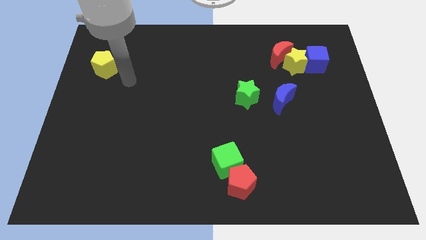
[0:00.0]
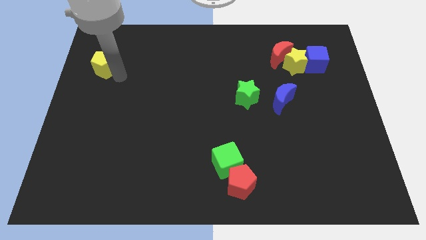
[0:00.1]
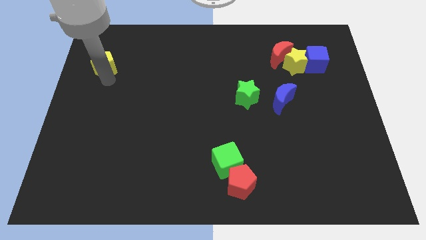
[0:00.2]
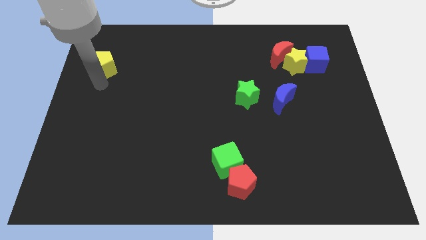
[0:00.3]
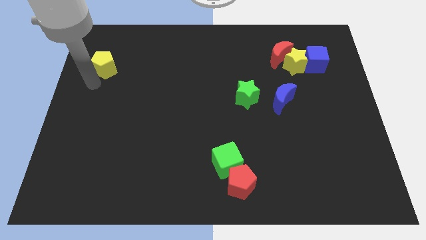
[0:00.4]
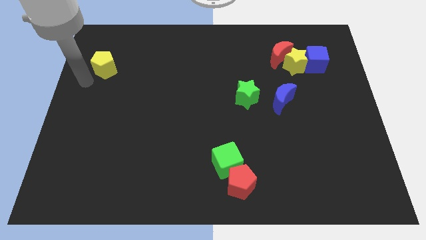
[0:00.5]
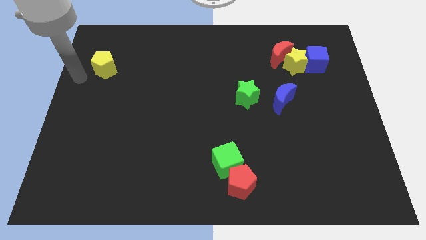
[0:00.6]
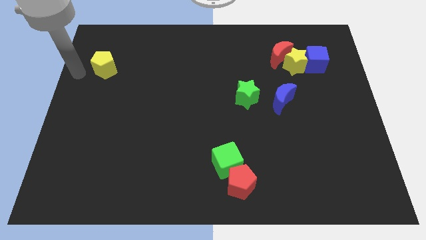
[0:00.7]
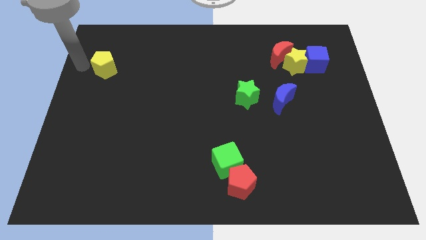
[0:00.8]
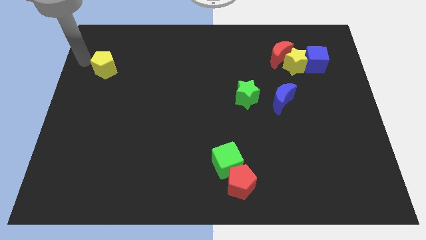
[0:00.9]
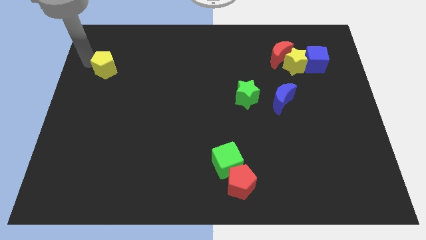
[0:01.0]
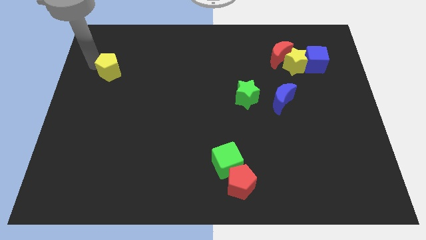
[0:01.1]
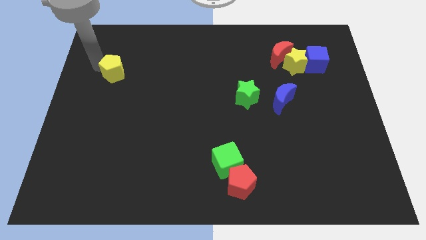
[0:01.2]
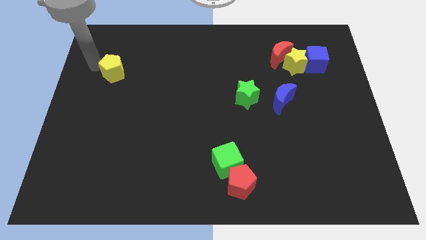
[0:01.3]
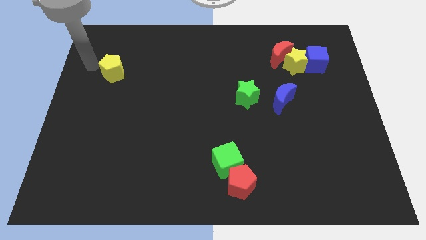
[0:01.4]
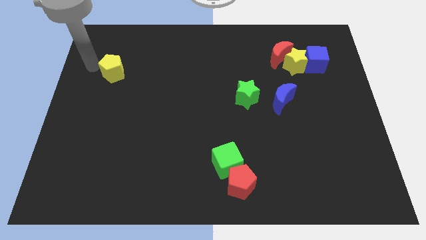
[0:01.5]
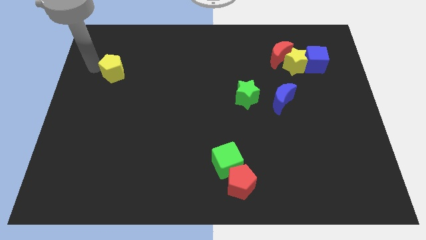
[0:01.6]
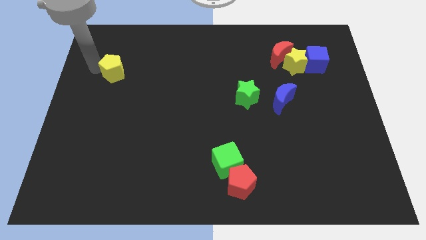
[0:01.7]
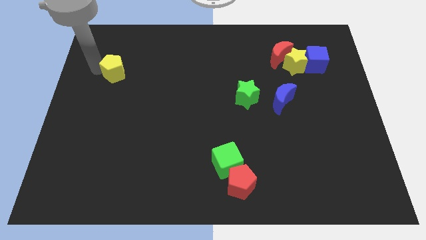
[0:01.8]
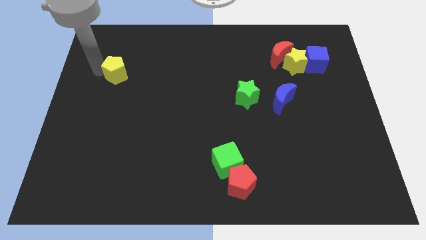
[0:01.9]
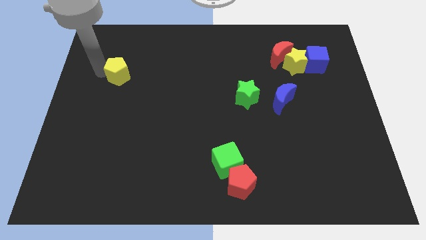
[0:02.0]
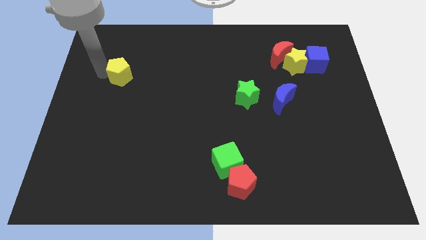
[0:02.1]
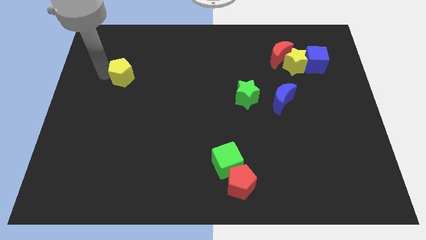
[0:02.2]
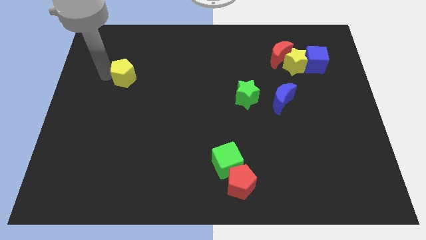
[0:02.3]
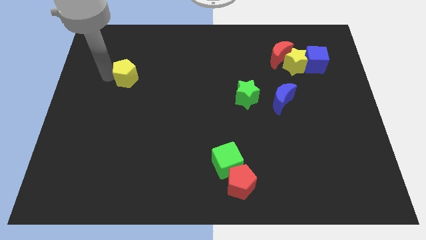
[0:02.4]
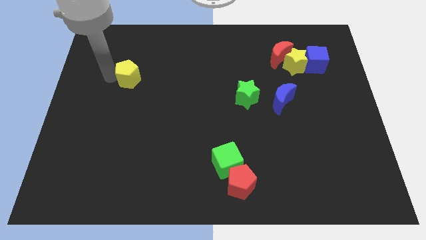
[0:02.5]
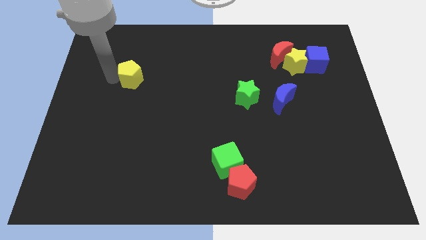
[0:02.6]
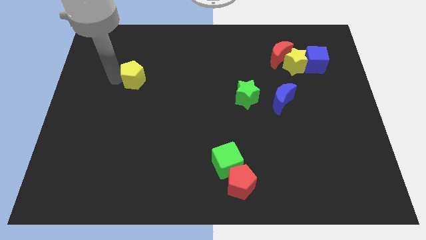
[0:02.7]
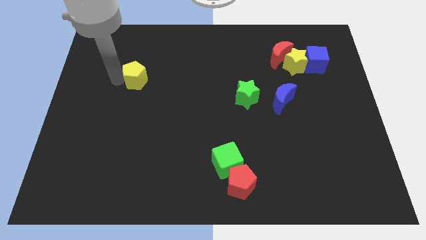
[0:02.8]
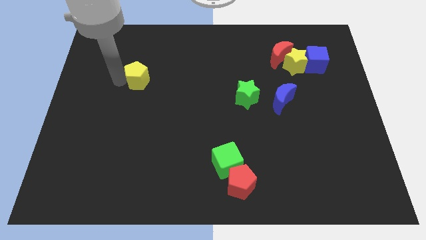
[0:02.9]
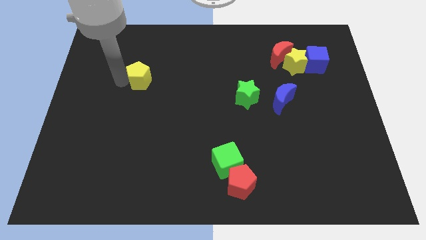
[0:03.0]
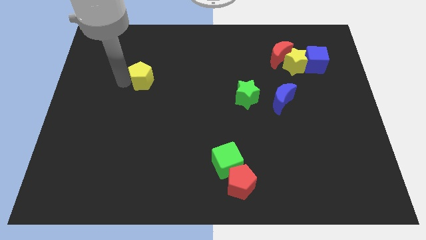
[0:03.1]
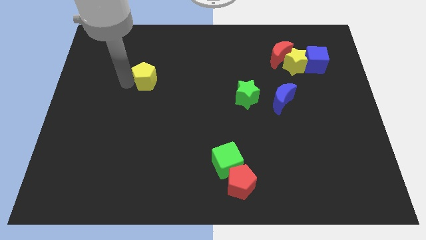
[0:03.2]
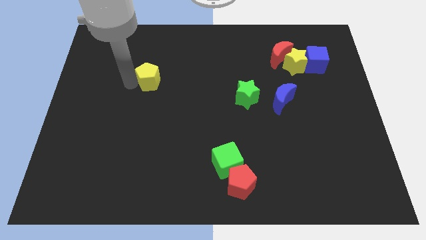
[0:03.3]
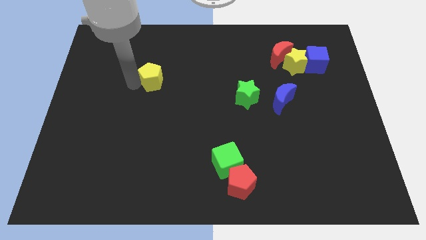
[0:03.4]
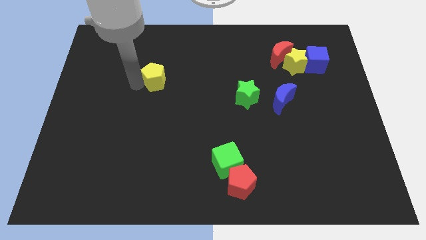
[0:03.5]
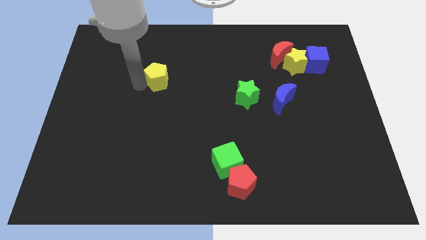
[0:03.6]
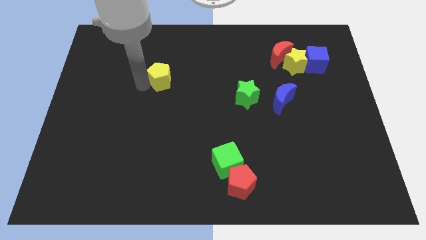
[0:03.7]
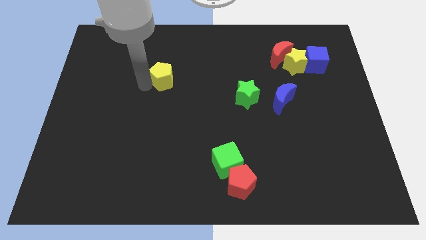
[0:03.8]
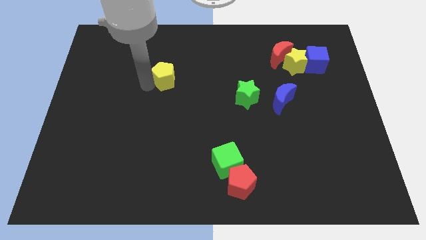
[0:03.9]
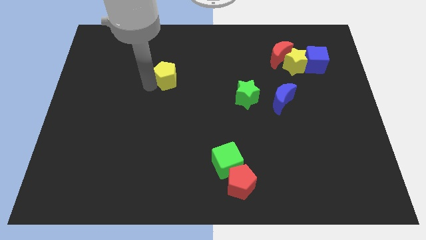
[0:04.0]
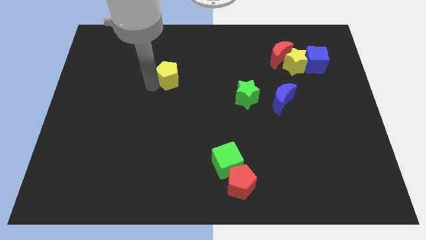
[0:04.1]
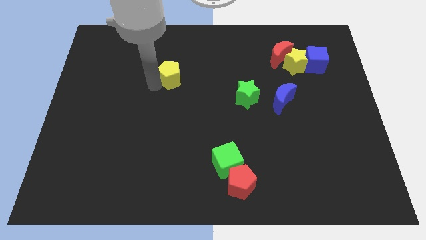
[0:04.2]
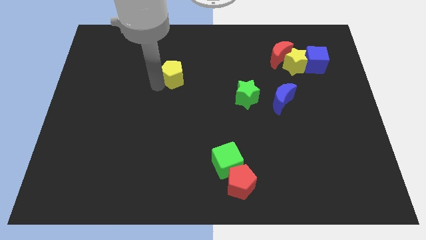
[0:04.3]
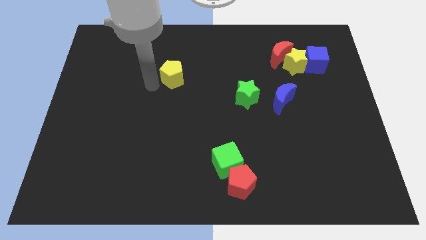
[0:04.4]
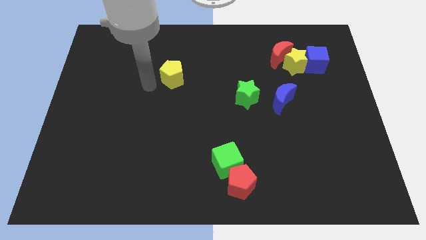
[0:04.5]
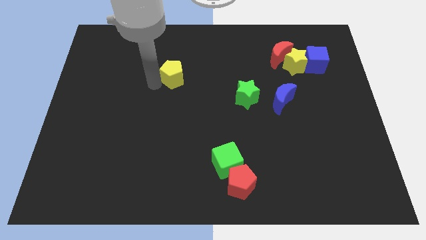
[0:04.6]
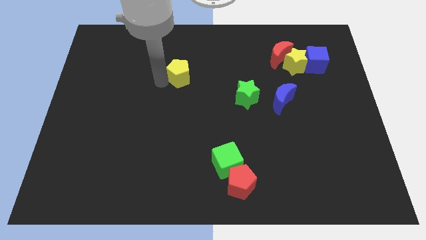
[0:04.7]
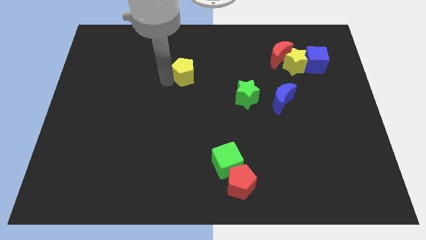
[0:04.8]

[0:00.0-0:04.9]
move the yellow pentagon to the right

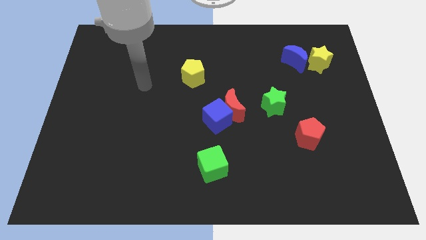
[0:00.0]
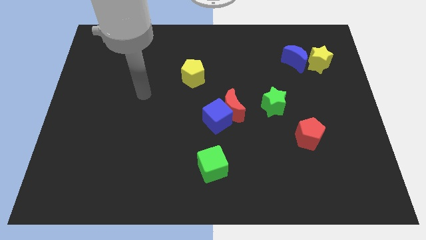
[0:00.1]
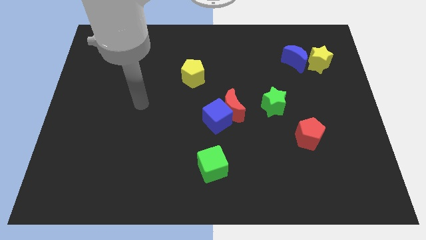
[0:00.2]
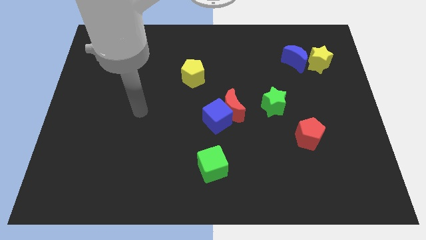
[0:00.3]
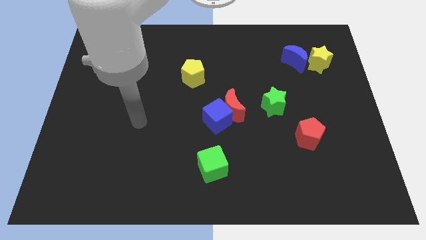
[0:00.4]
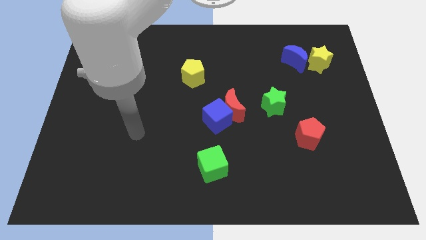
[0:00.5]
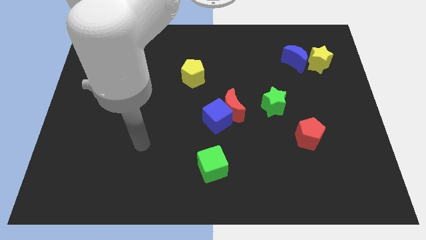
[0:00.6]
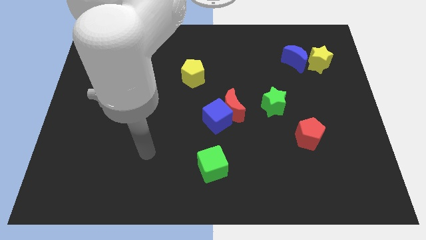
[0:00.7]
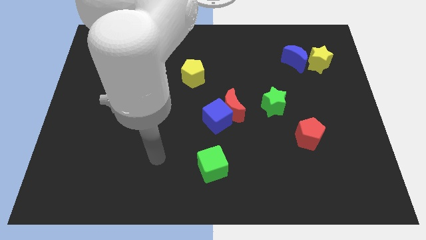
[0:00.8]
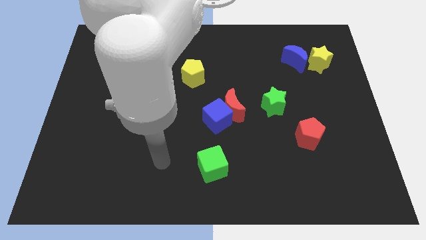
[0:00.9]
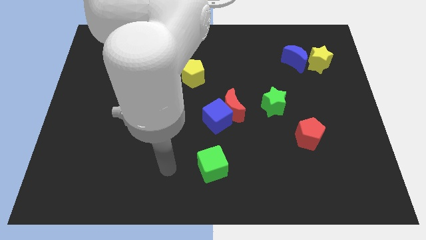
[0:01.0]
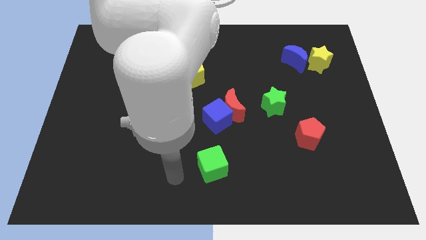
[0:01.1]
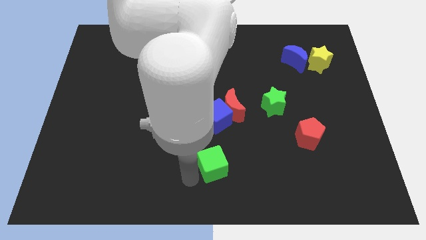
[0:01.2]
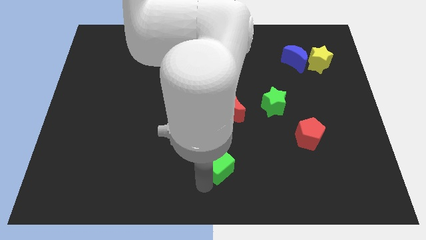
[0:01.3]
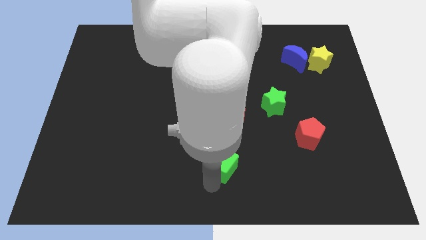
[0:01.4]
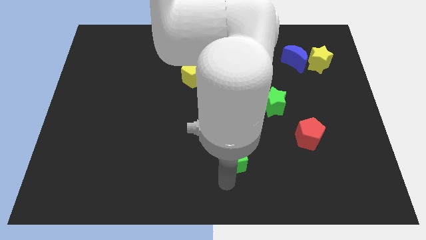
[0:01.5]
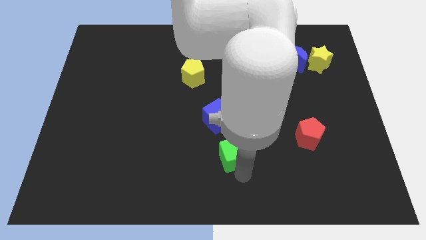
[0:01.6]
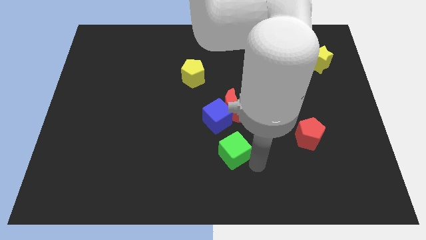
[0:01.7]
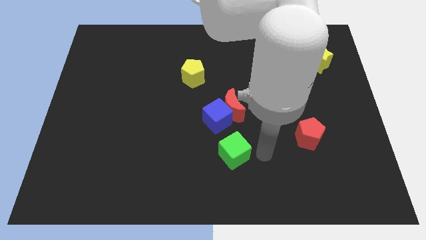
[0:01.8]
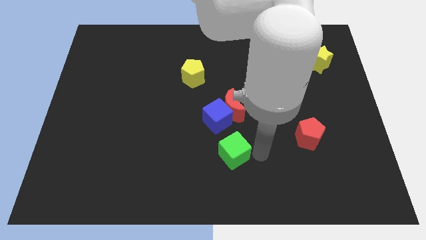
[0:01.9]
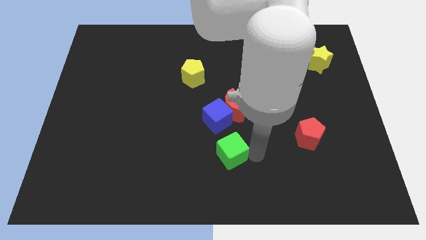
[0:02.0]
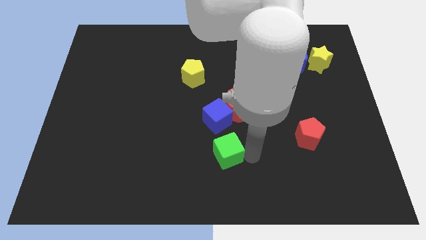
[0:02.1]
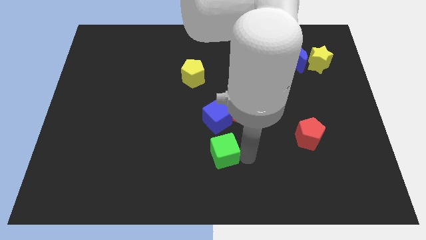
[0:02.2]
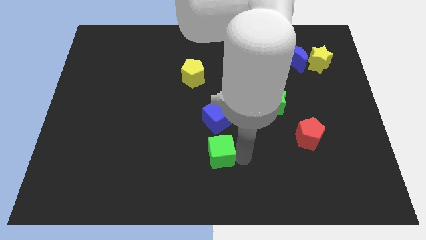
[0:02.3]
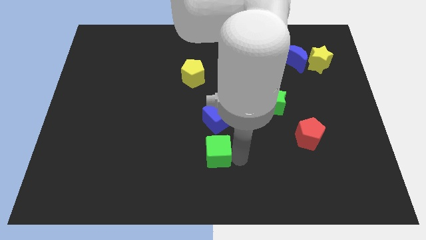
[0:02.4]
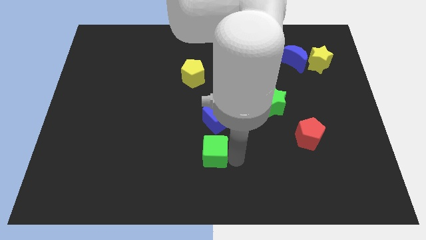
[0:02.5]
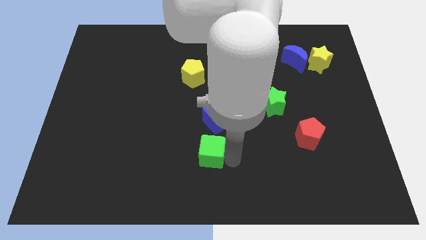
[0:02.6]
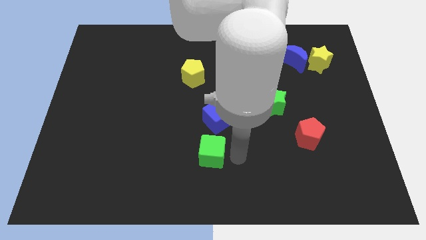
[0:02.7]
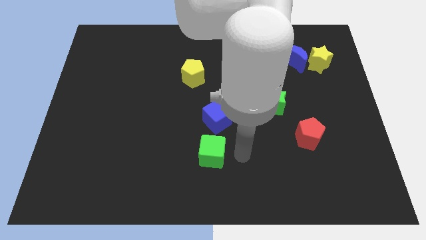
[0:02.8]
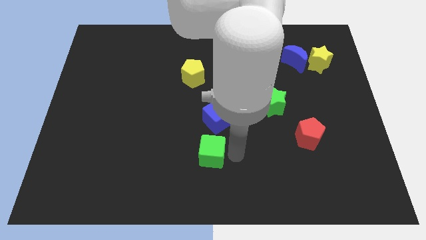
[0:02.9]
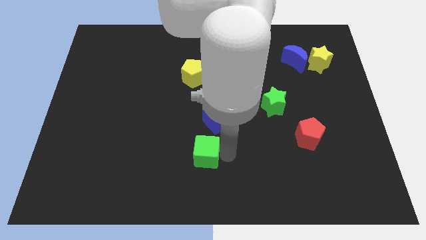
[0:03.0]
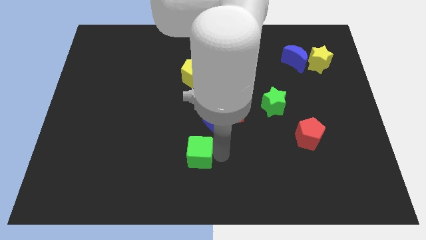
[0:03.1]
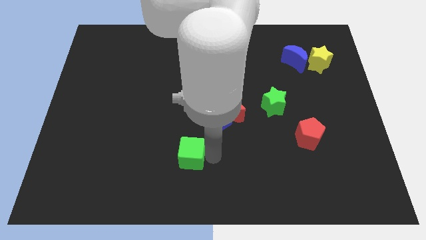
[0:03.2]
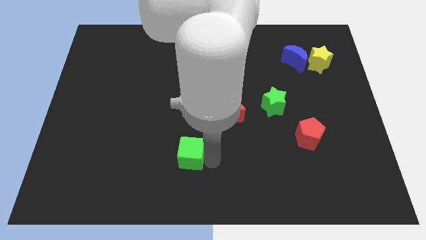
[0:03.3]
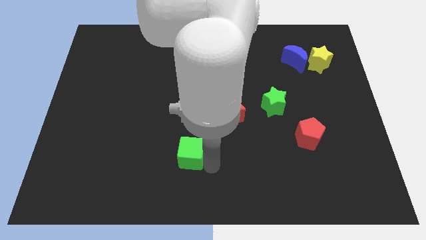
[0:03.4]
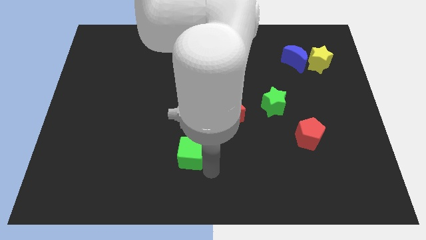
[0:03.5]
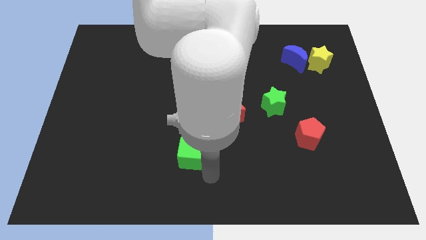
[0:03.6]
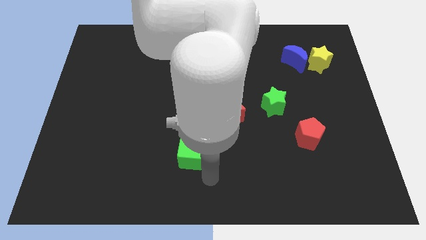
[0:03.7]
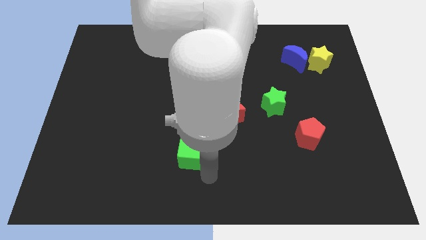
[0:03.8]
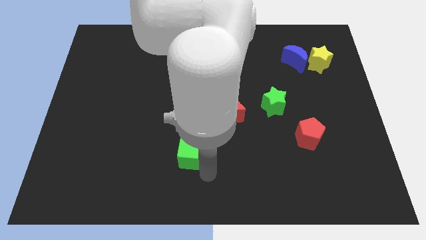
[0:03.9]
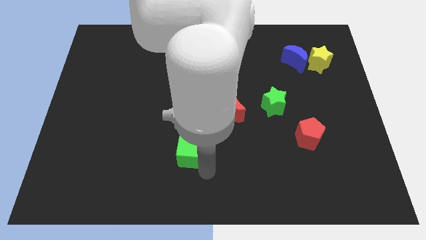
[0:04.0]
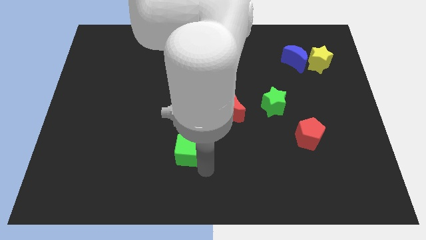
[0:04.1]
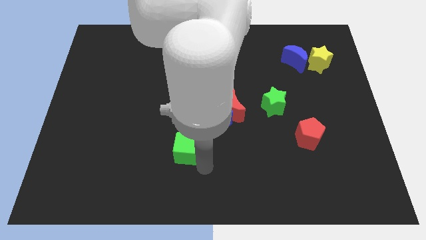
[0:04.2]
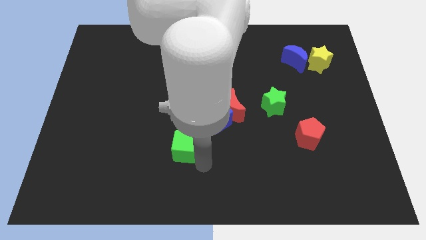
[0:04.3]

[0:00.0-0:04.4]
slide the green cube a little bit up and to the left
